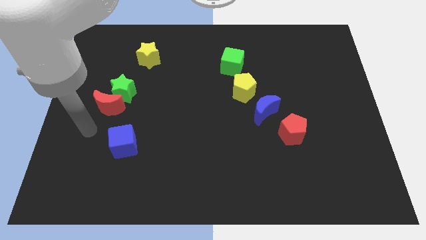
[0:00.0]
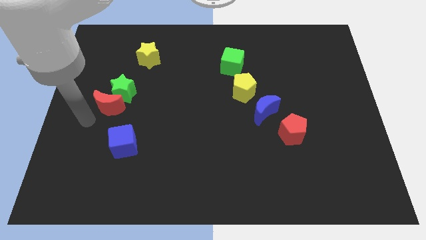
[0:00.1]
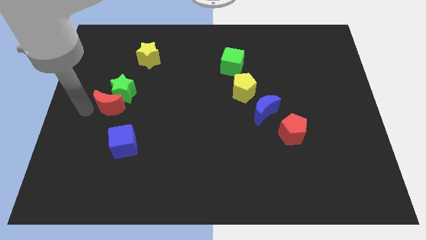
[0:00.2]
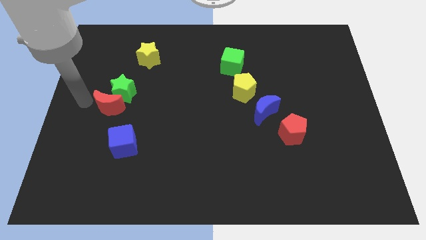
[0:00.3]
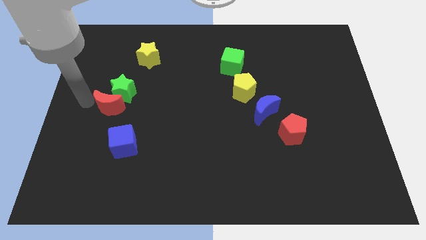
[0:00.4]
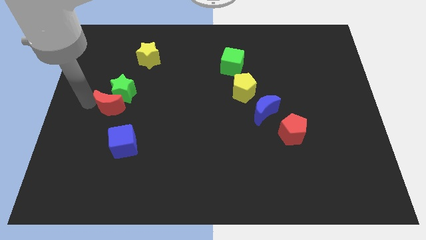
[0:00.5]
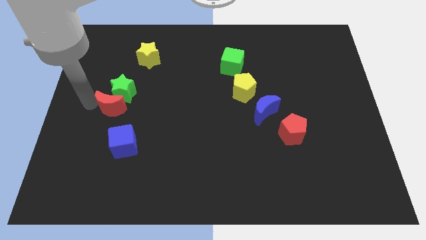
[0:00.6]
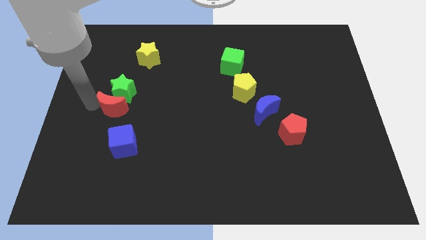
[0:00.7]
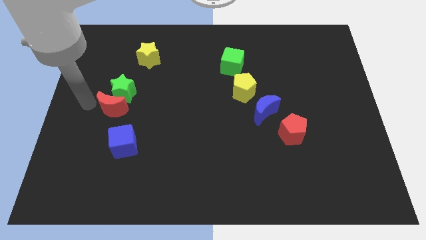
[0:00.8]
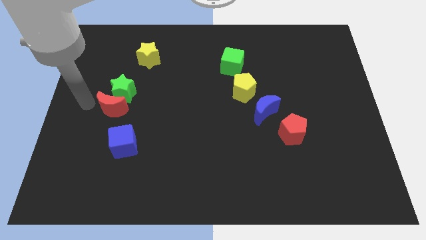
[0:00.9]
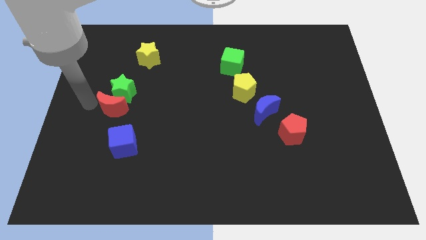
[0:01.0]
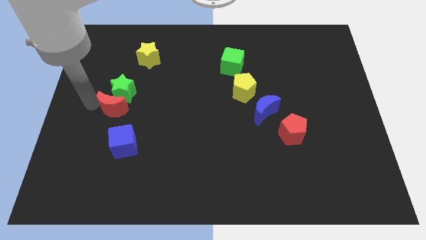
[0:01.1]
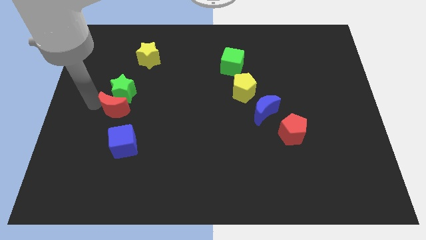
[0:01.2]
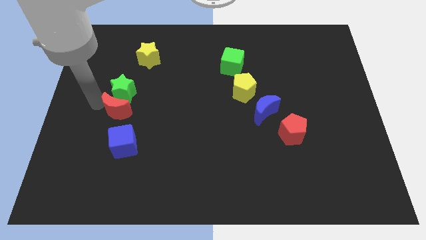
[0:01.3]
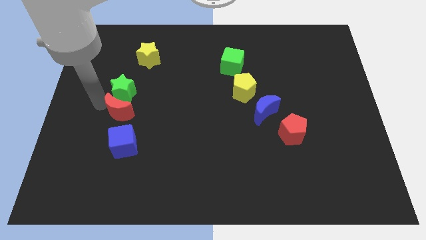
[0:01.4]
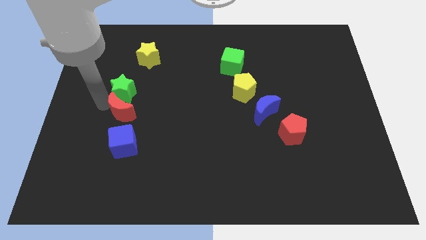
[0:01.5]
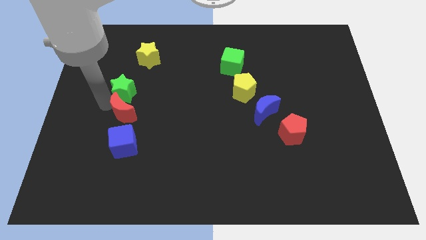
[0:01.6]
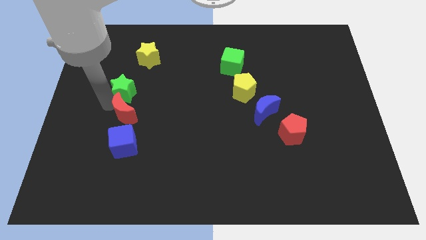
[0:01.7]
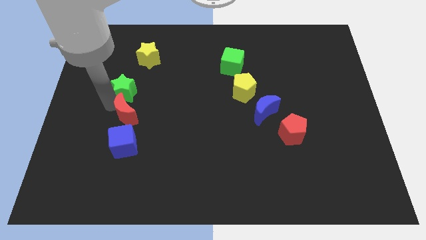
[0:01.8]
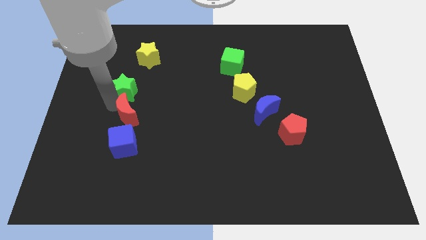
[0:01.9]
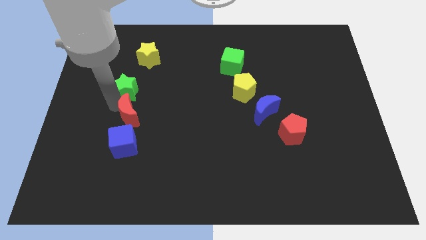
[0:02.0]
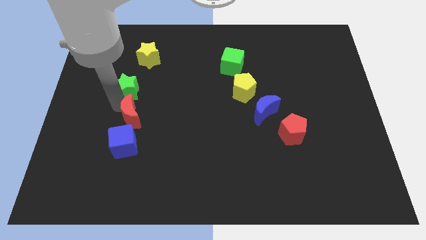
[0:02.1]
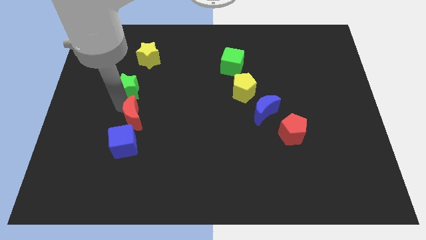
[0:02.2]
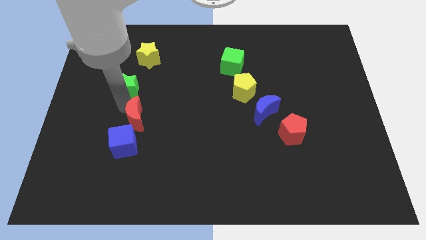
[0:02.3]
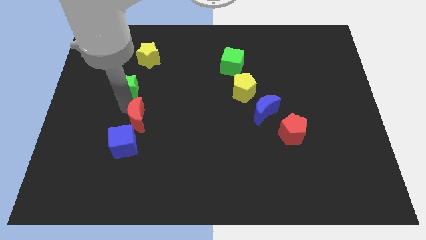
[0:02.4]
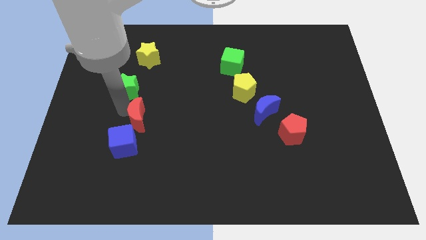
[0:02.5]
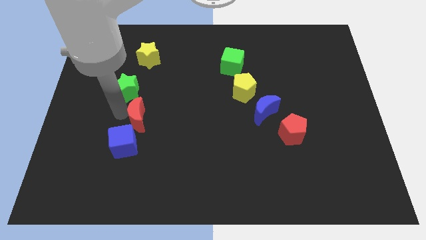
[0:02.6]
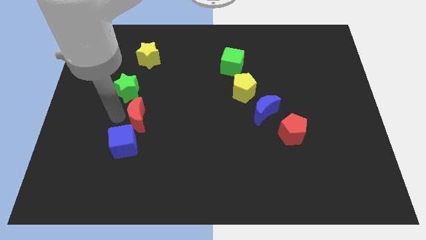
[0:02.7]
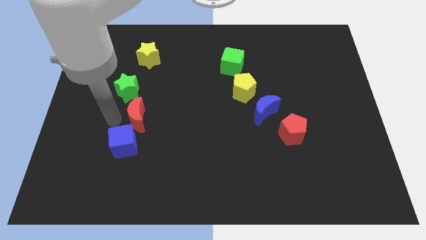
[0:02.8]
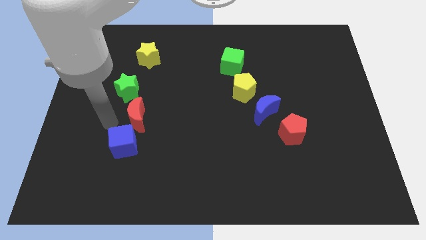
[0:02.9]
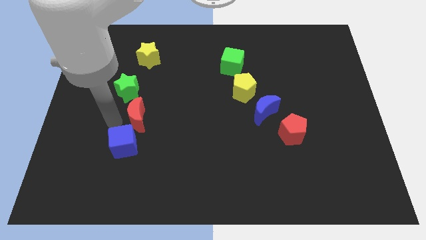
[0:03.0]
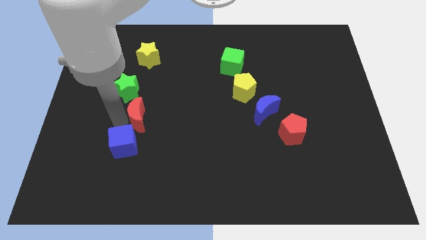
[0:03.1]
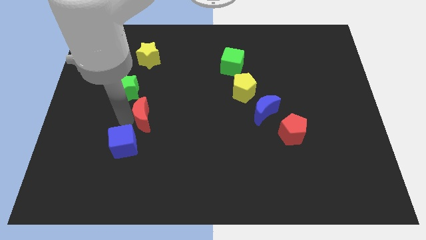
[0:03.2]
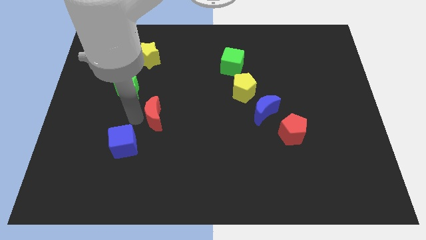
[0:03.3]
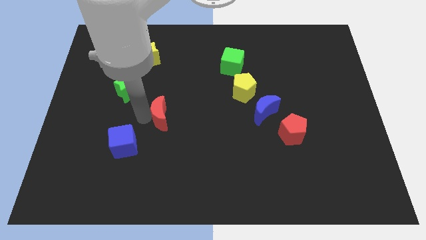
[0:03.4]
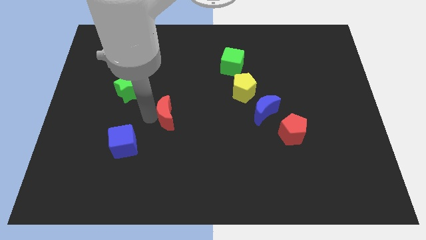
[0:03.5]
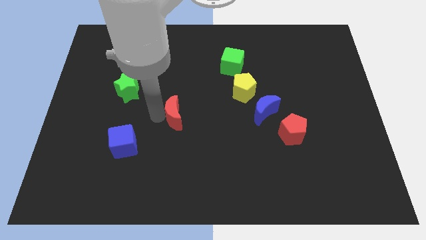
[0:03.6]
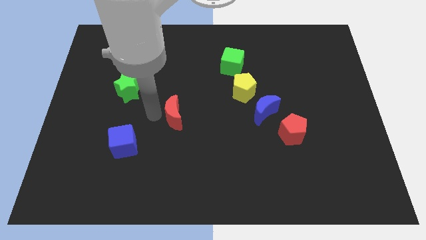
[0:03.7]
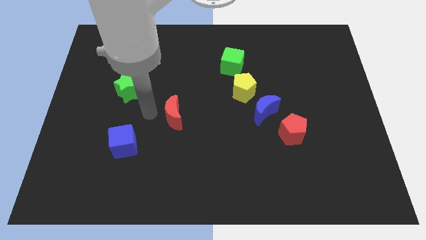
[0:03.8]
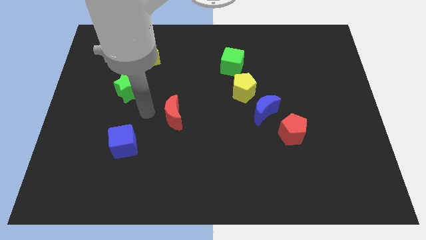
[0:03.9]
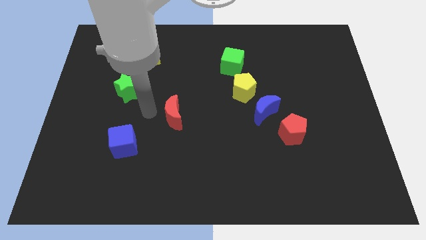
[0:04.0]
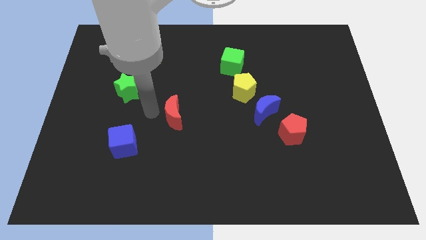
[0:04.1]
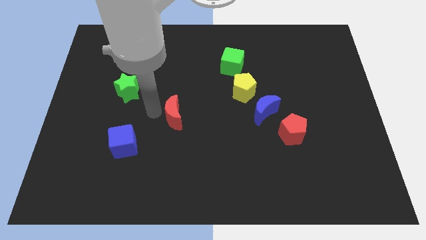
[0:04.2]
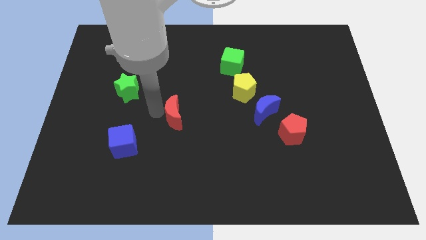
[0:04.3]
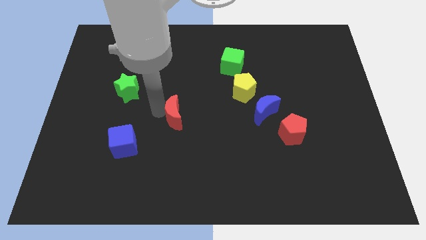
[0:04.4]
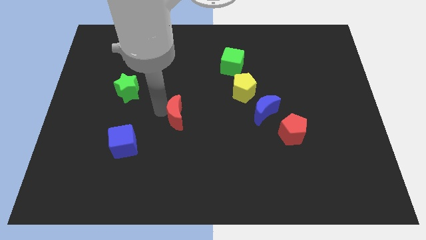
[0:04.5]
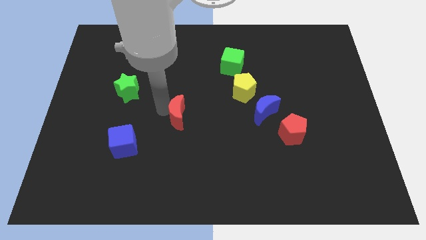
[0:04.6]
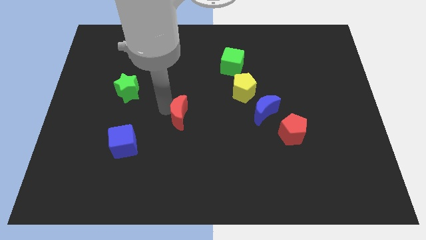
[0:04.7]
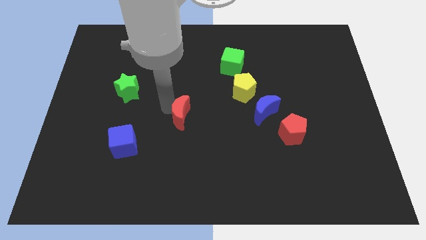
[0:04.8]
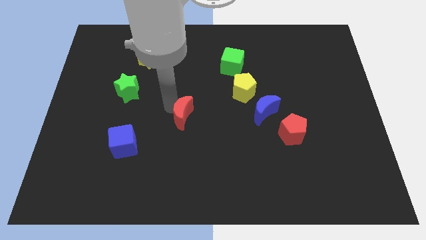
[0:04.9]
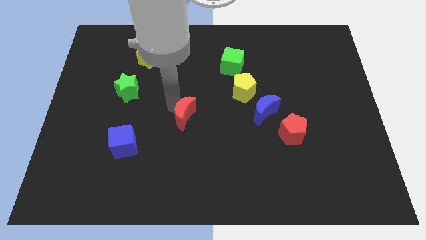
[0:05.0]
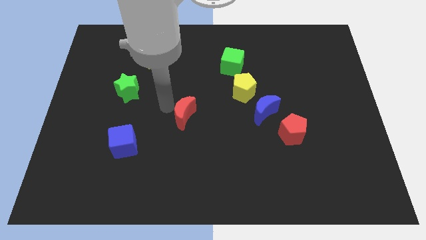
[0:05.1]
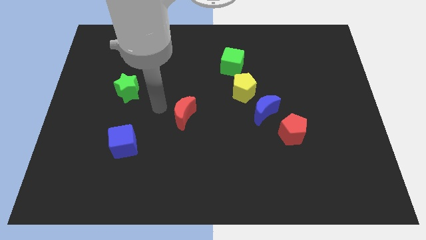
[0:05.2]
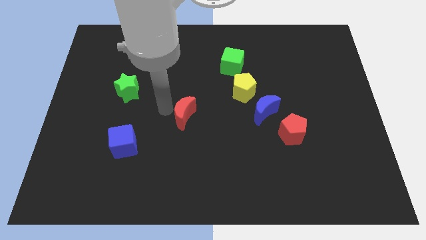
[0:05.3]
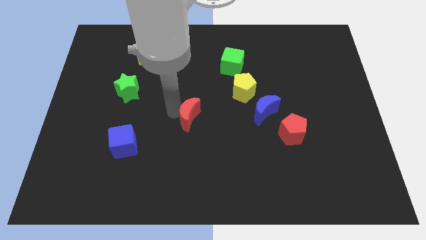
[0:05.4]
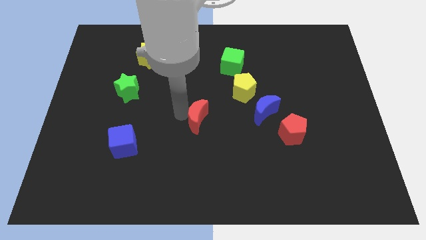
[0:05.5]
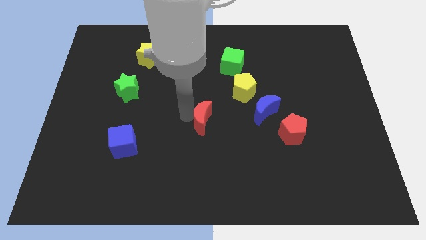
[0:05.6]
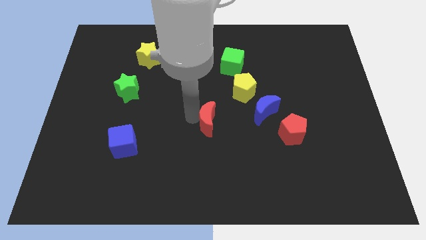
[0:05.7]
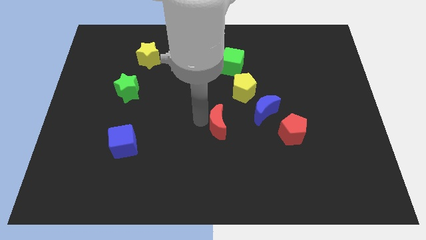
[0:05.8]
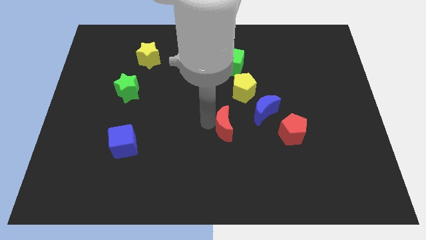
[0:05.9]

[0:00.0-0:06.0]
push the red moon to the bottom left side of the blue moon

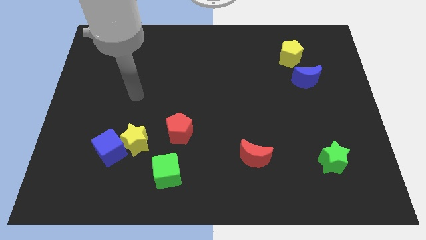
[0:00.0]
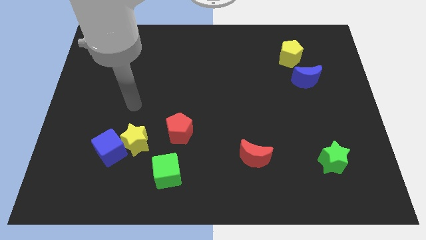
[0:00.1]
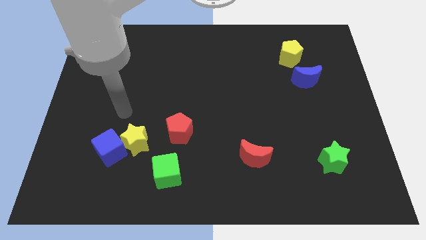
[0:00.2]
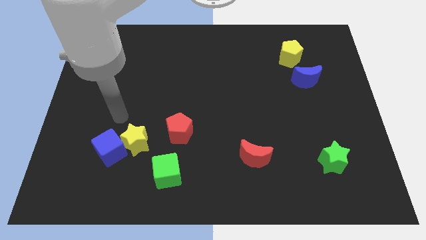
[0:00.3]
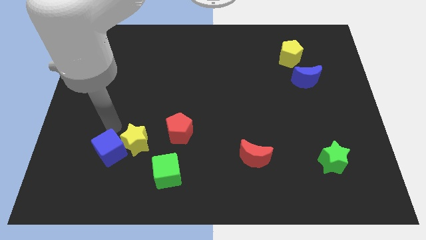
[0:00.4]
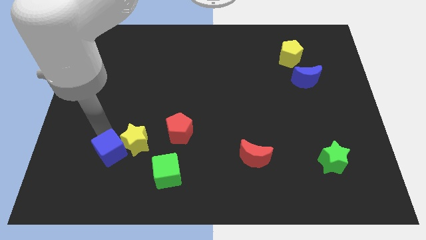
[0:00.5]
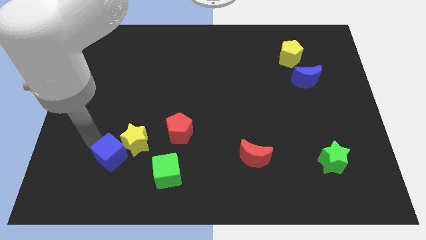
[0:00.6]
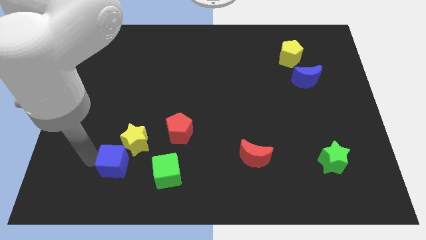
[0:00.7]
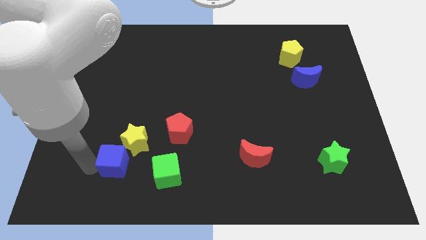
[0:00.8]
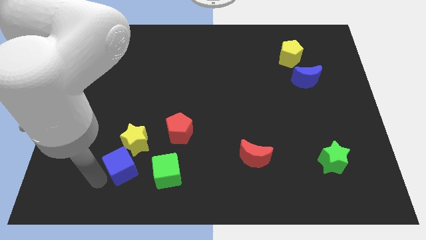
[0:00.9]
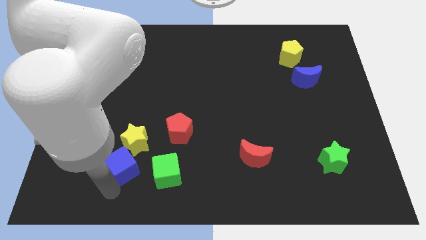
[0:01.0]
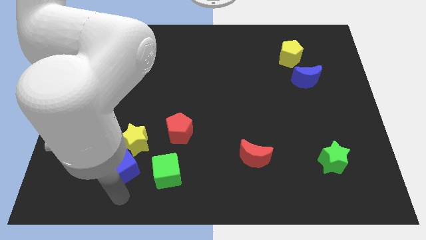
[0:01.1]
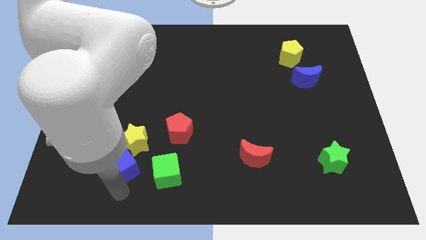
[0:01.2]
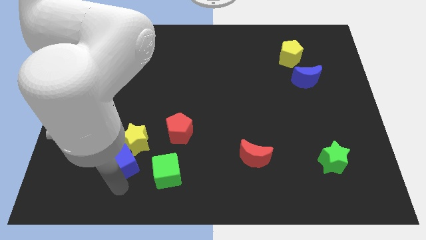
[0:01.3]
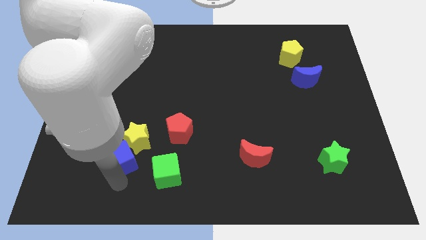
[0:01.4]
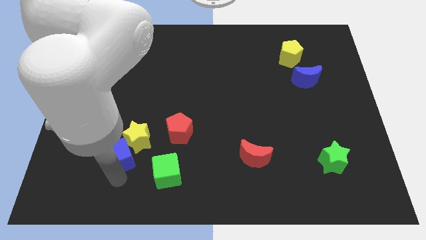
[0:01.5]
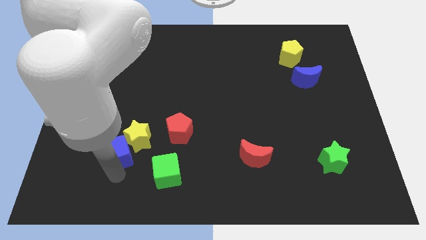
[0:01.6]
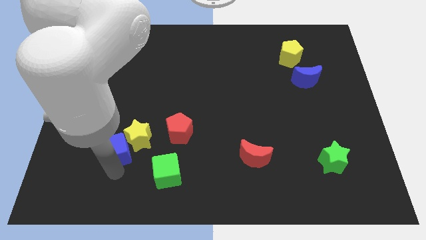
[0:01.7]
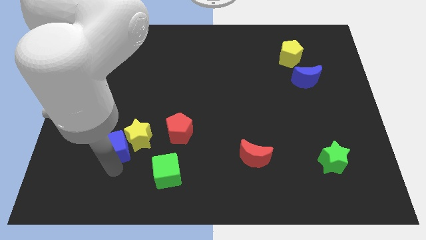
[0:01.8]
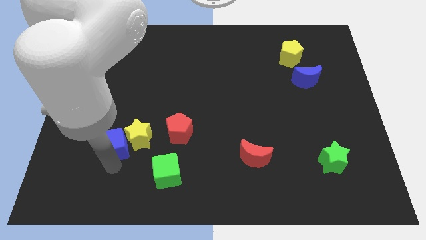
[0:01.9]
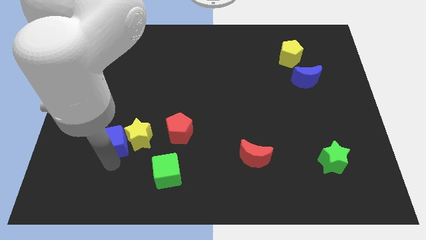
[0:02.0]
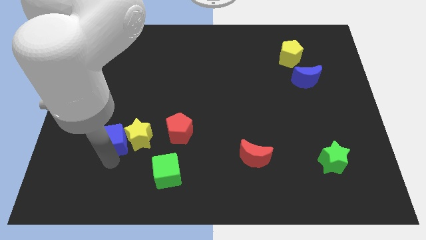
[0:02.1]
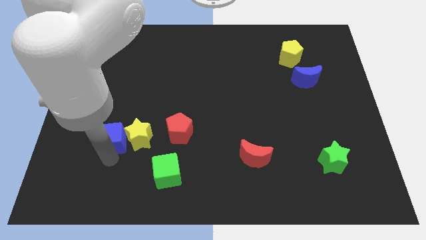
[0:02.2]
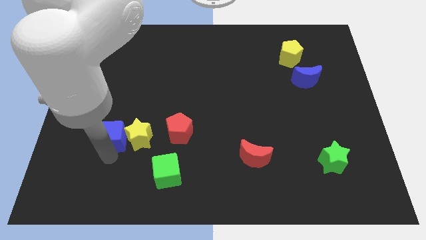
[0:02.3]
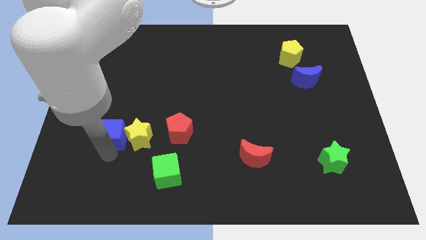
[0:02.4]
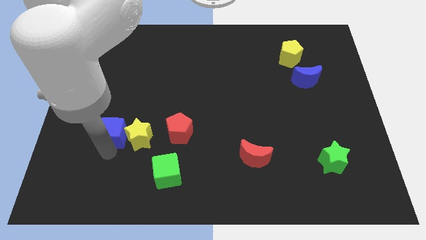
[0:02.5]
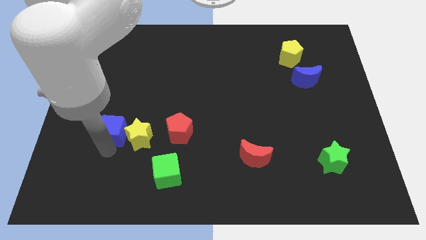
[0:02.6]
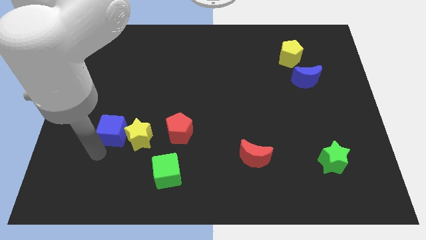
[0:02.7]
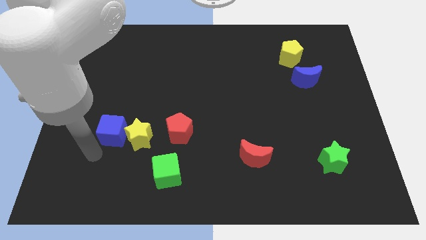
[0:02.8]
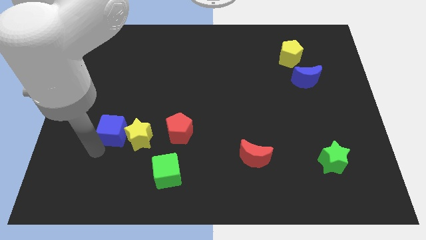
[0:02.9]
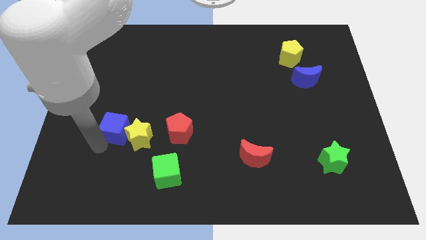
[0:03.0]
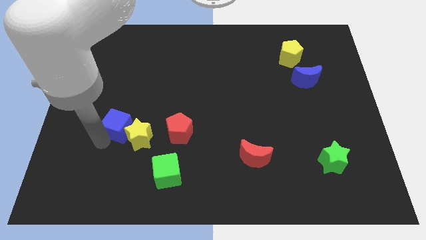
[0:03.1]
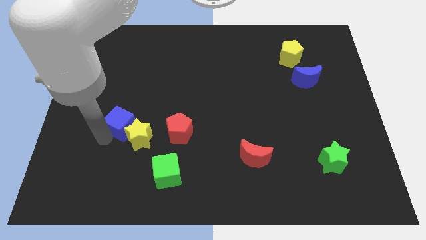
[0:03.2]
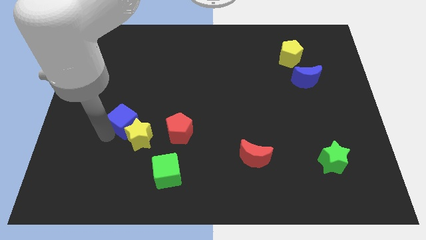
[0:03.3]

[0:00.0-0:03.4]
push the blue cube above the yellow star
